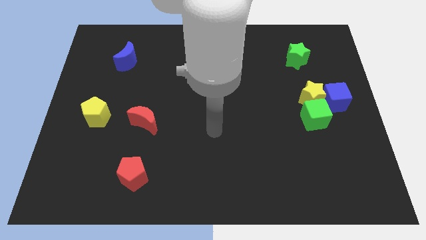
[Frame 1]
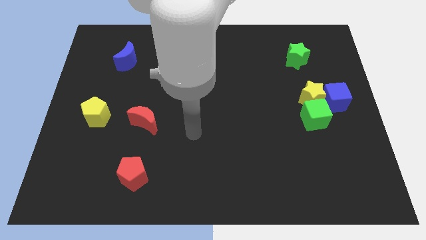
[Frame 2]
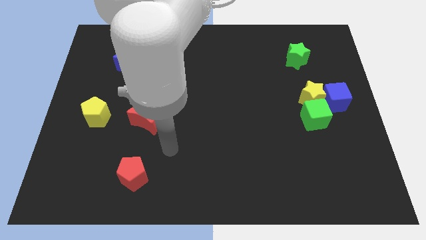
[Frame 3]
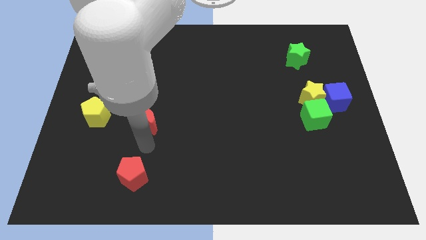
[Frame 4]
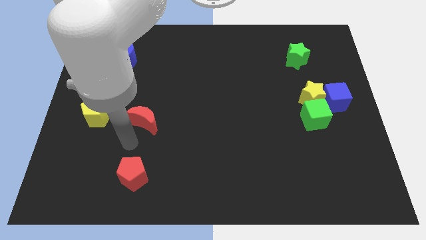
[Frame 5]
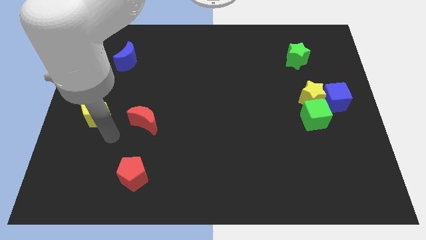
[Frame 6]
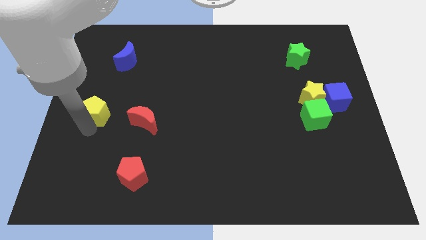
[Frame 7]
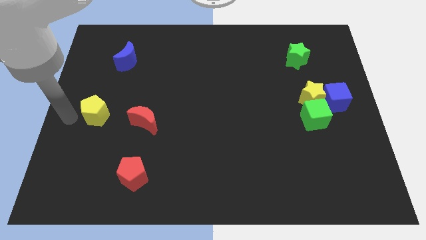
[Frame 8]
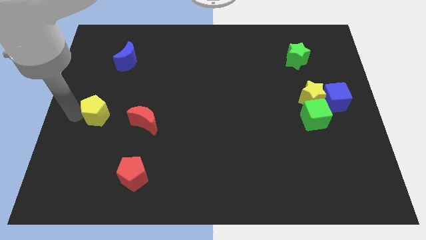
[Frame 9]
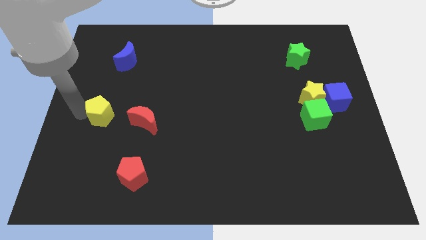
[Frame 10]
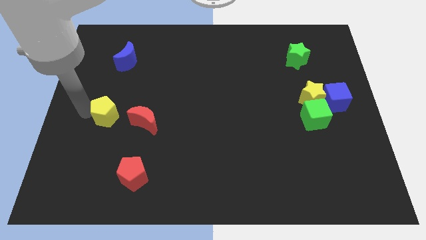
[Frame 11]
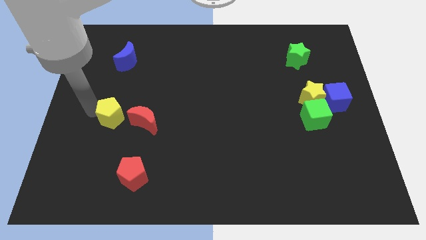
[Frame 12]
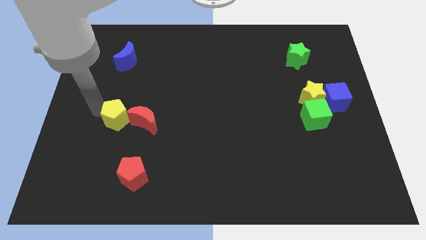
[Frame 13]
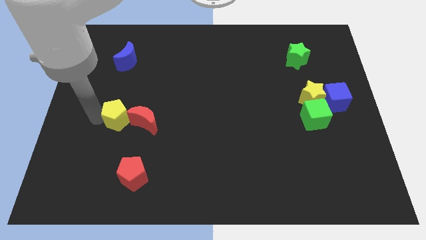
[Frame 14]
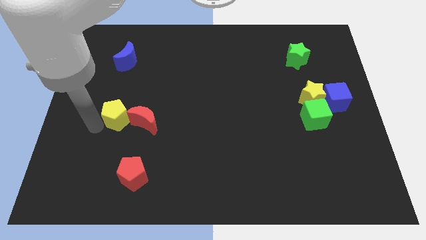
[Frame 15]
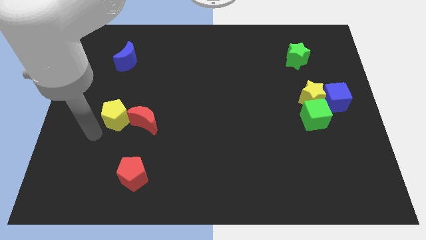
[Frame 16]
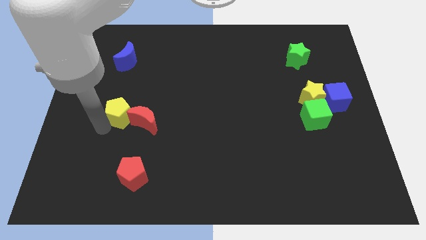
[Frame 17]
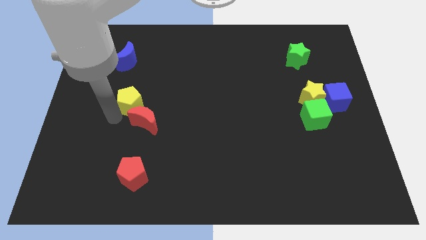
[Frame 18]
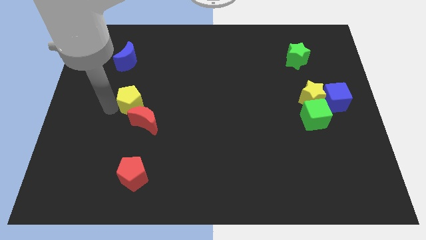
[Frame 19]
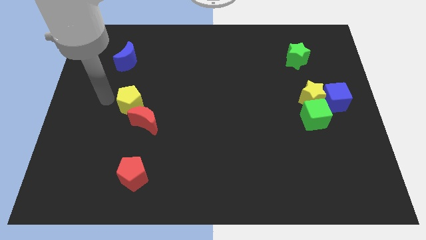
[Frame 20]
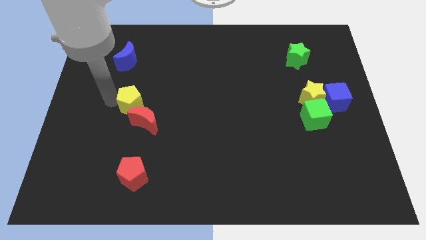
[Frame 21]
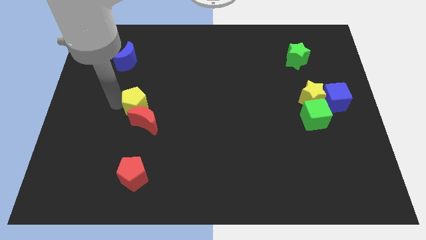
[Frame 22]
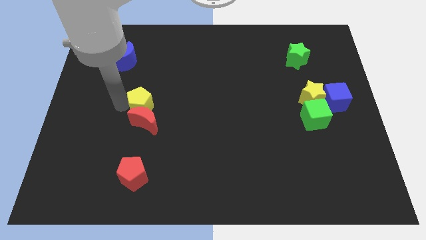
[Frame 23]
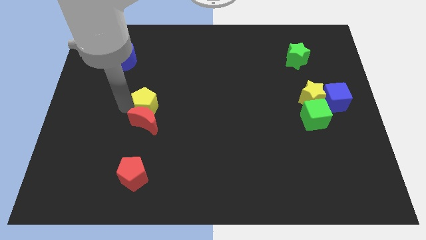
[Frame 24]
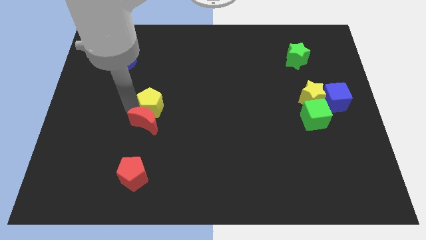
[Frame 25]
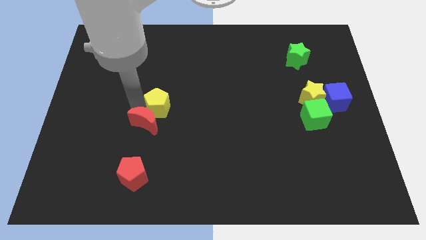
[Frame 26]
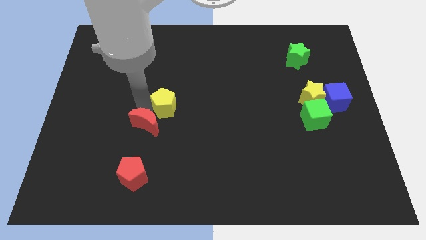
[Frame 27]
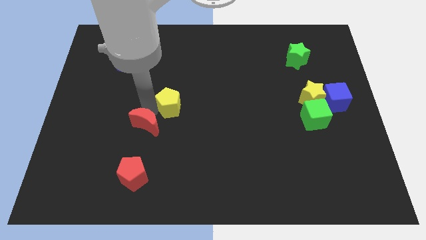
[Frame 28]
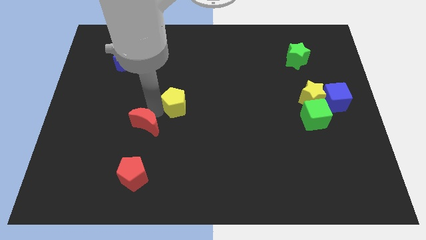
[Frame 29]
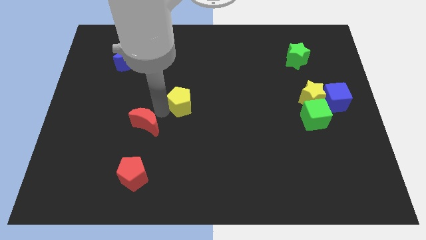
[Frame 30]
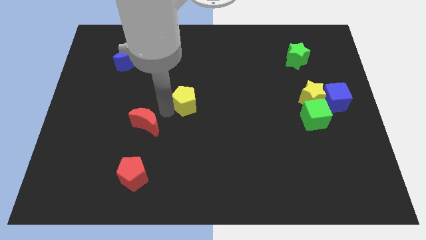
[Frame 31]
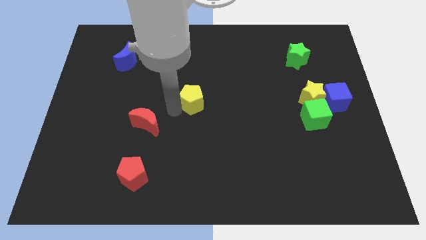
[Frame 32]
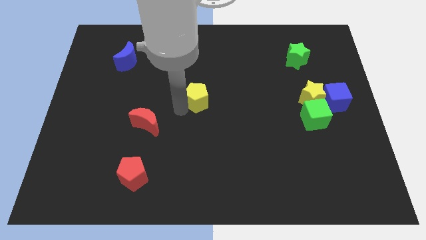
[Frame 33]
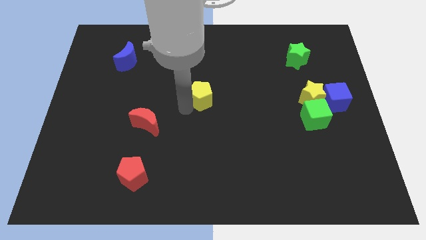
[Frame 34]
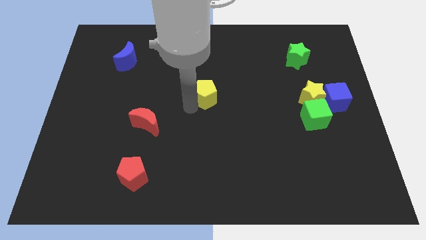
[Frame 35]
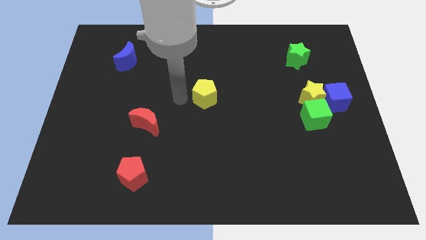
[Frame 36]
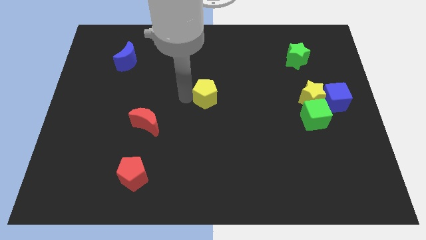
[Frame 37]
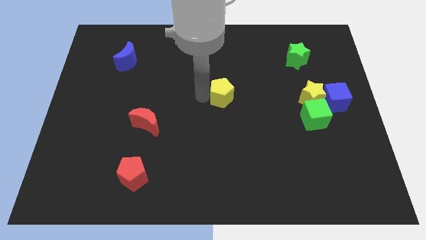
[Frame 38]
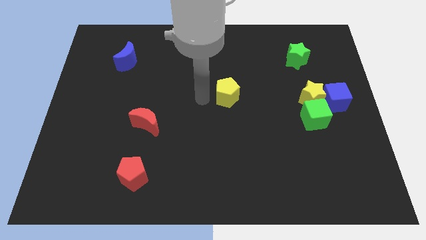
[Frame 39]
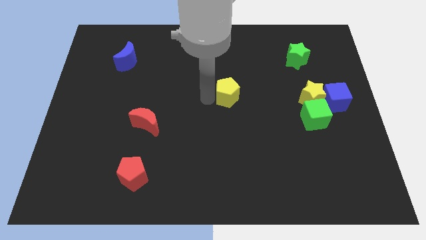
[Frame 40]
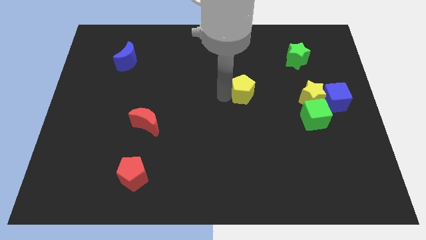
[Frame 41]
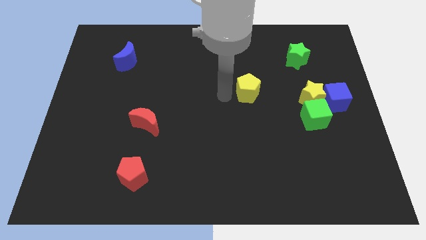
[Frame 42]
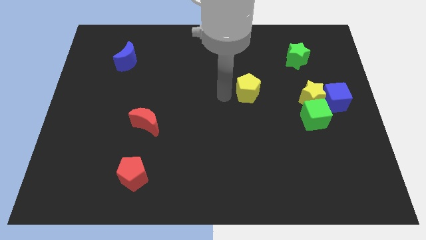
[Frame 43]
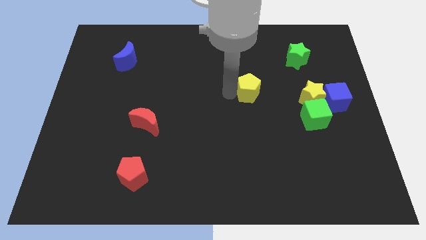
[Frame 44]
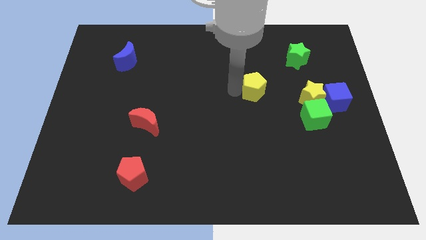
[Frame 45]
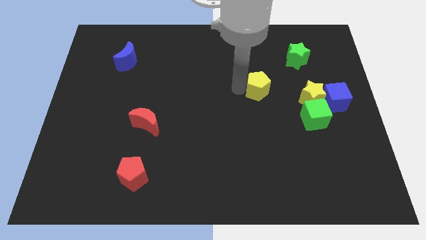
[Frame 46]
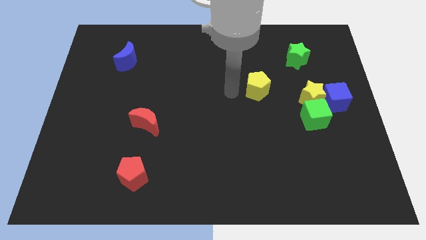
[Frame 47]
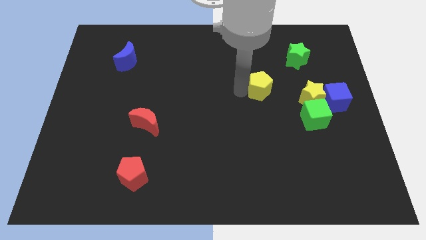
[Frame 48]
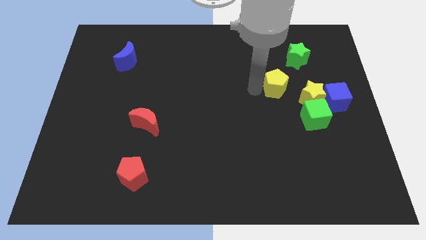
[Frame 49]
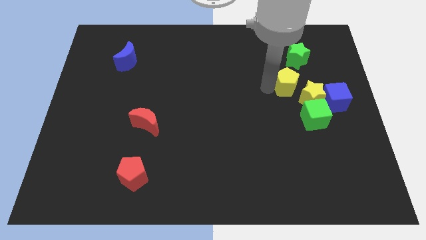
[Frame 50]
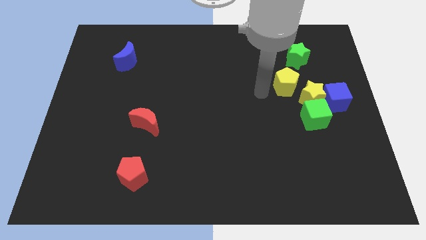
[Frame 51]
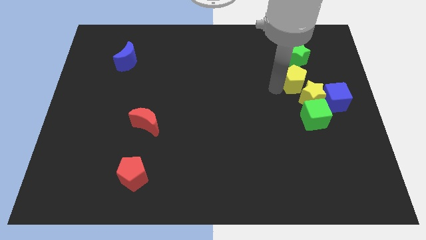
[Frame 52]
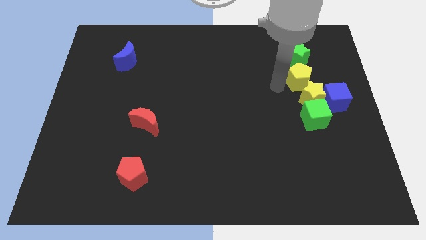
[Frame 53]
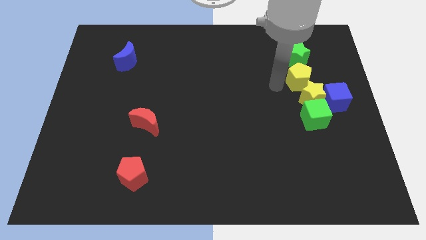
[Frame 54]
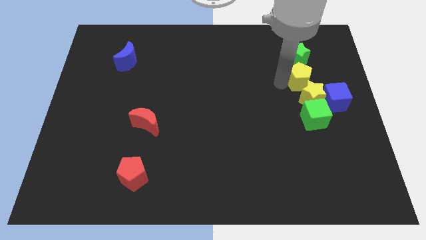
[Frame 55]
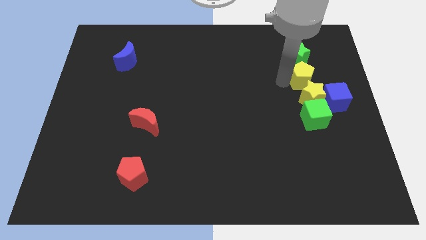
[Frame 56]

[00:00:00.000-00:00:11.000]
push the yellow pentagon diagonally down and to the right of the green star

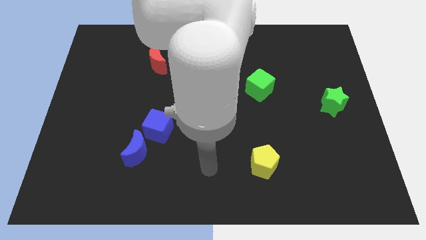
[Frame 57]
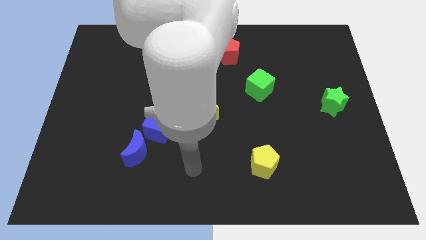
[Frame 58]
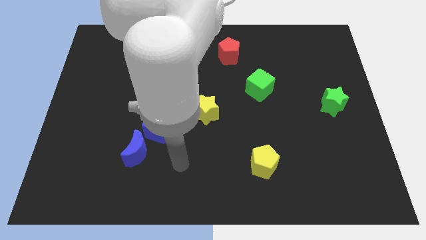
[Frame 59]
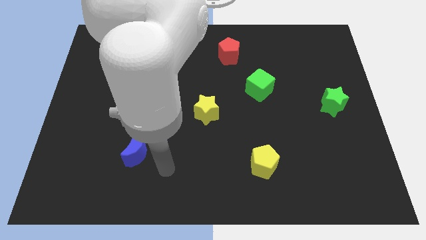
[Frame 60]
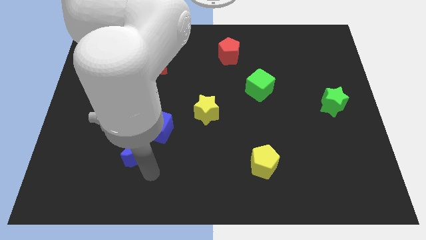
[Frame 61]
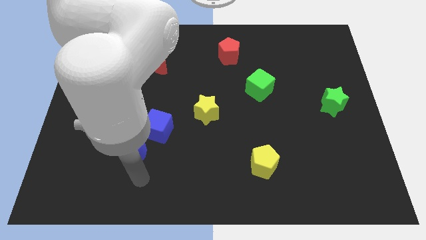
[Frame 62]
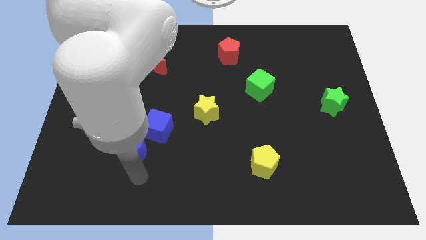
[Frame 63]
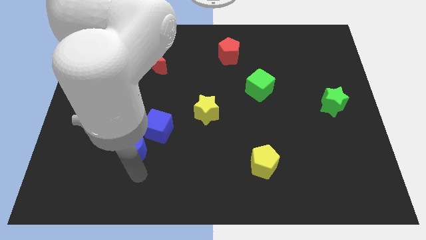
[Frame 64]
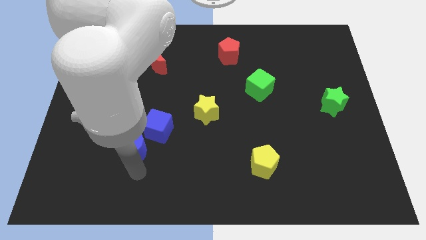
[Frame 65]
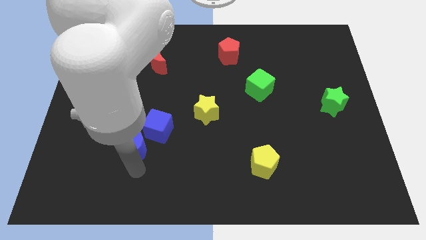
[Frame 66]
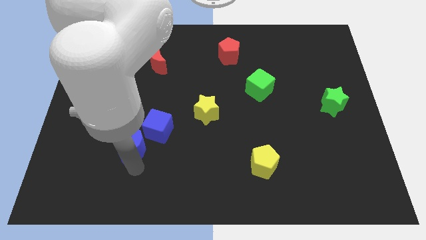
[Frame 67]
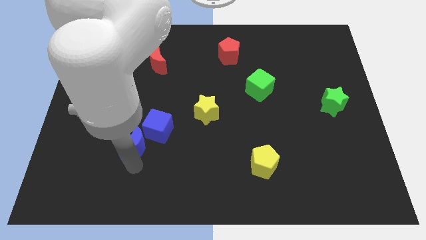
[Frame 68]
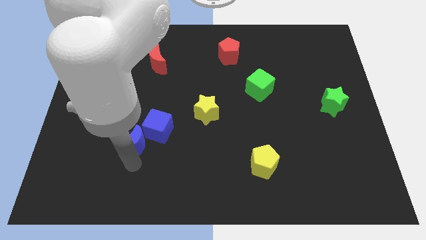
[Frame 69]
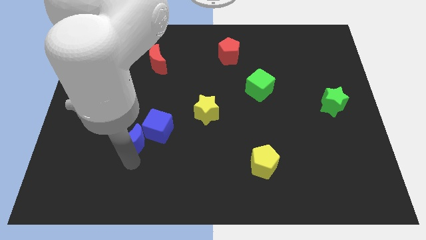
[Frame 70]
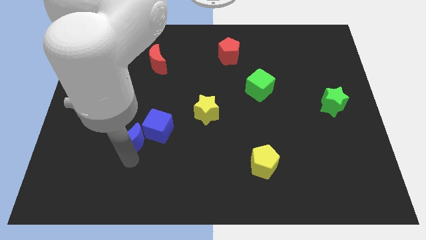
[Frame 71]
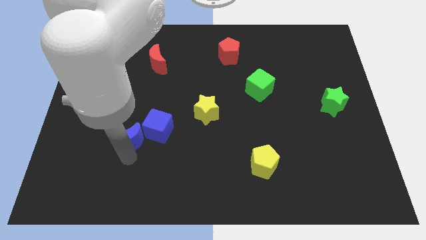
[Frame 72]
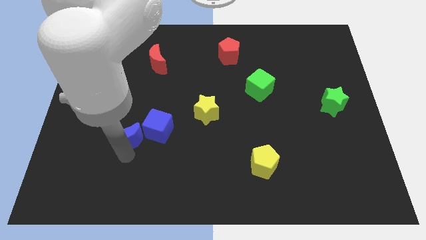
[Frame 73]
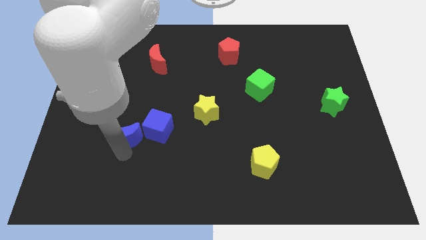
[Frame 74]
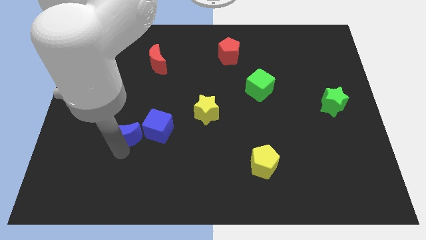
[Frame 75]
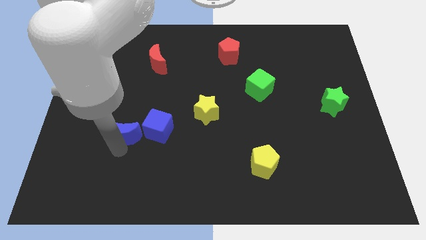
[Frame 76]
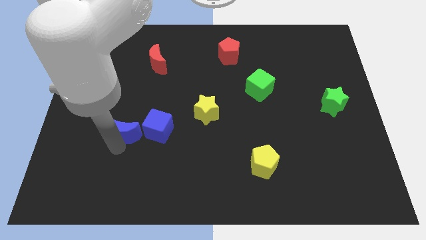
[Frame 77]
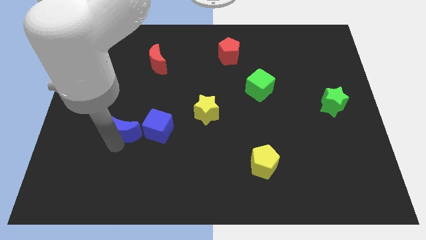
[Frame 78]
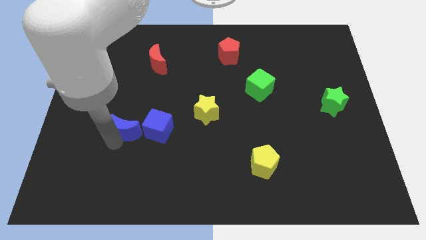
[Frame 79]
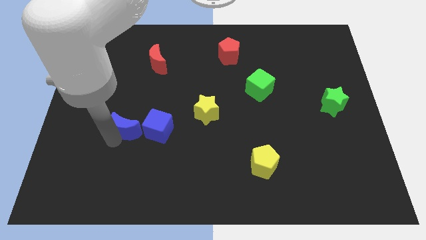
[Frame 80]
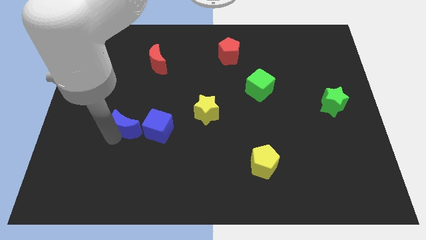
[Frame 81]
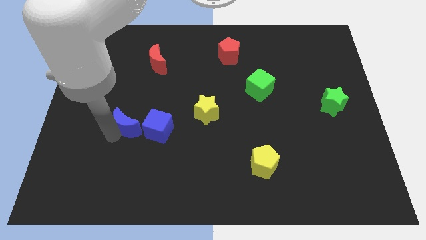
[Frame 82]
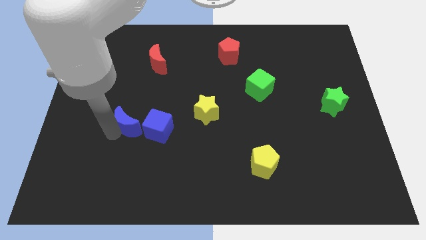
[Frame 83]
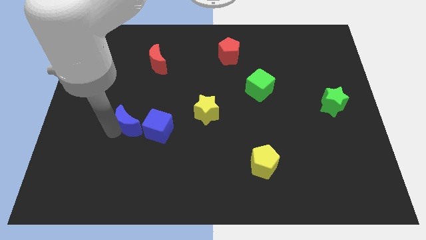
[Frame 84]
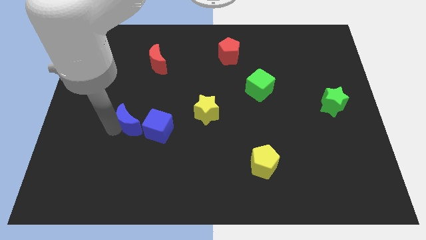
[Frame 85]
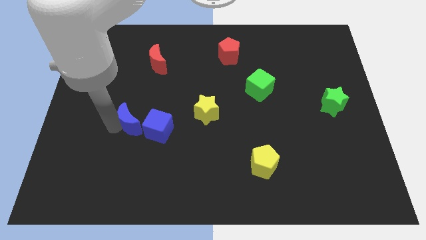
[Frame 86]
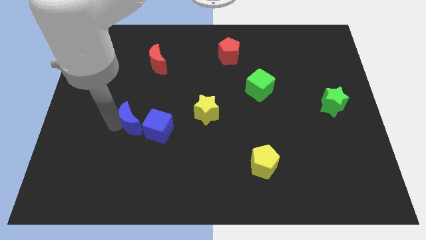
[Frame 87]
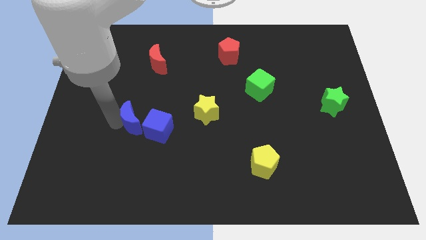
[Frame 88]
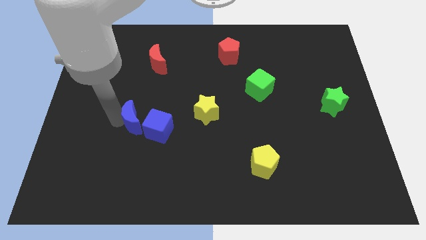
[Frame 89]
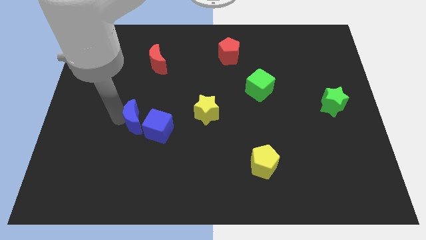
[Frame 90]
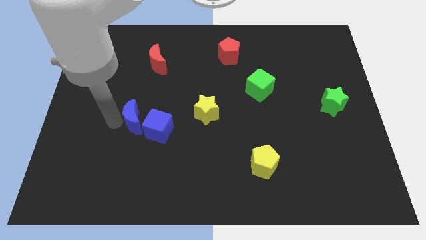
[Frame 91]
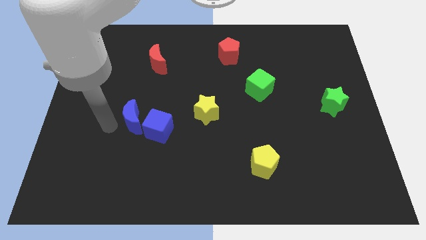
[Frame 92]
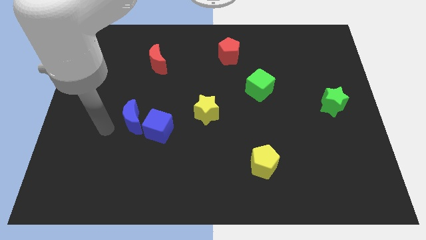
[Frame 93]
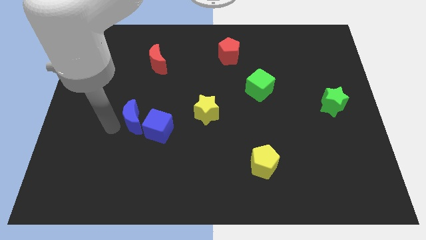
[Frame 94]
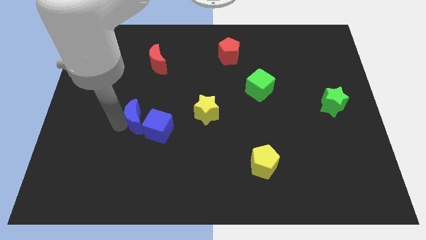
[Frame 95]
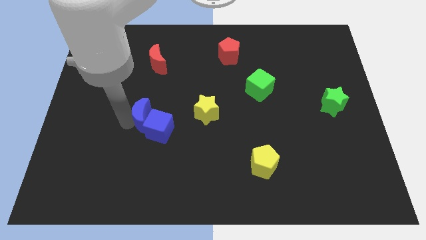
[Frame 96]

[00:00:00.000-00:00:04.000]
move the blue moon to the left of the yellow star
